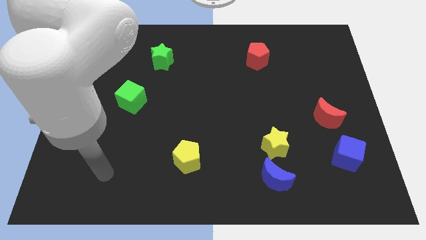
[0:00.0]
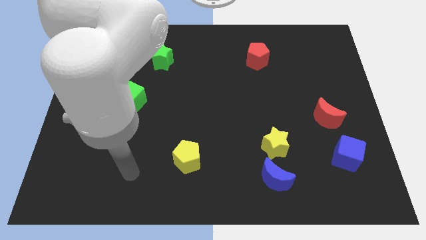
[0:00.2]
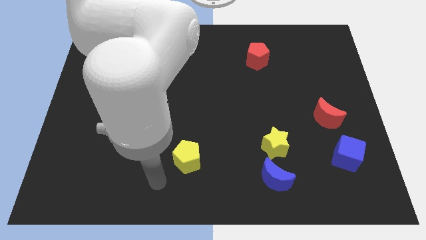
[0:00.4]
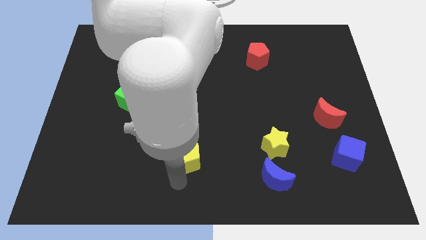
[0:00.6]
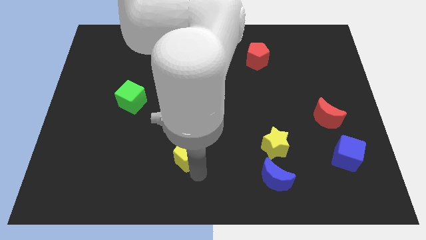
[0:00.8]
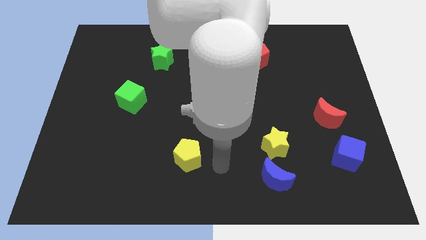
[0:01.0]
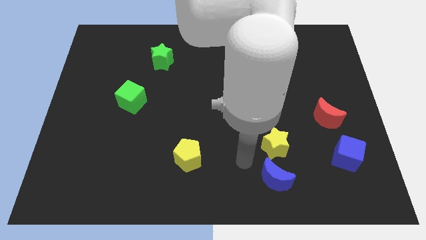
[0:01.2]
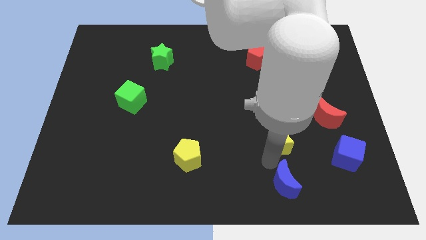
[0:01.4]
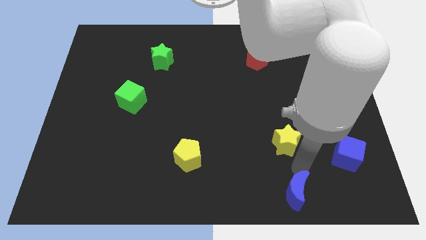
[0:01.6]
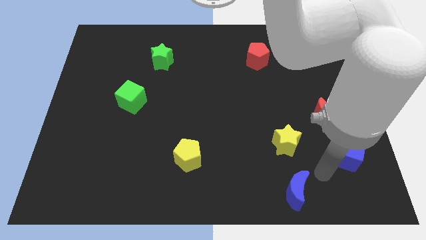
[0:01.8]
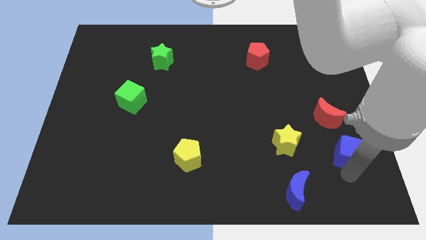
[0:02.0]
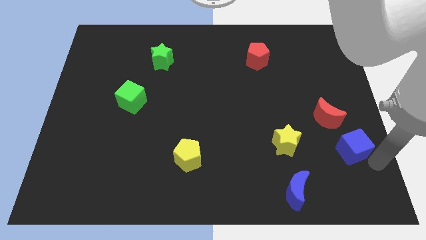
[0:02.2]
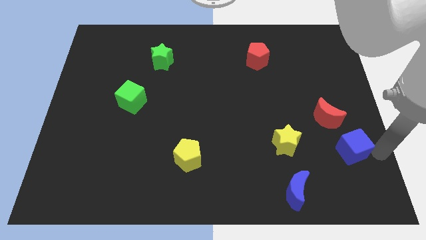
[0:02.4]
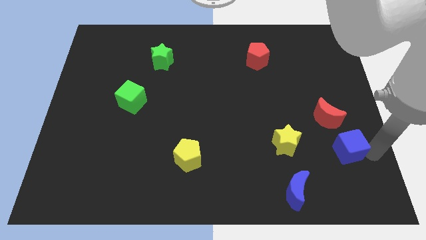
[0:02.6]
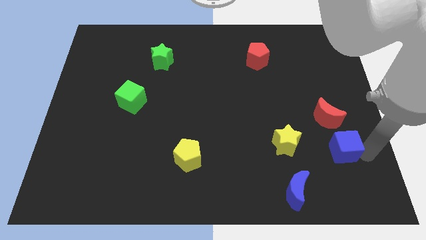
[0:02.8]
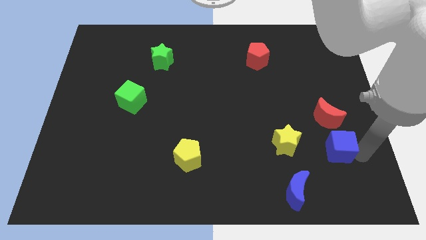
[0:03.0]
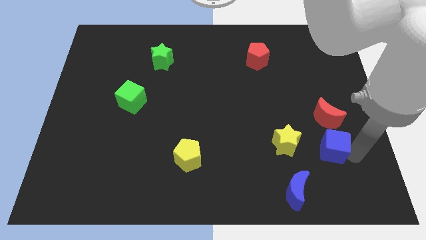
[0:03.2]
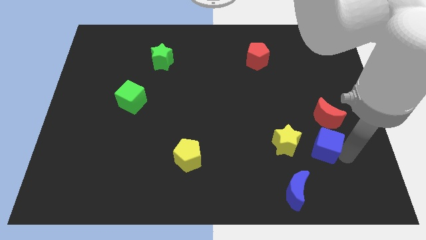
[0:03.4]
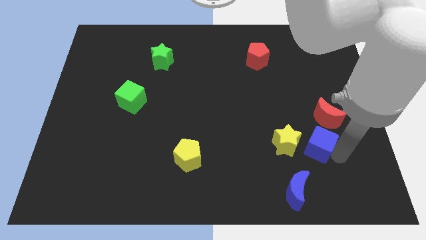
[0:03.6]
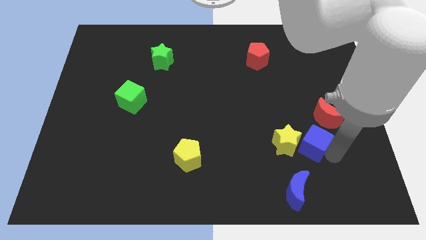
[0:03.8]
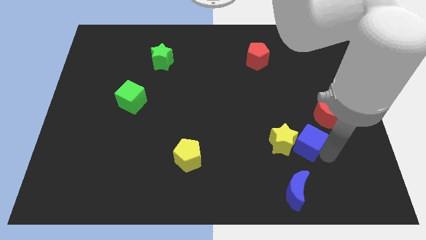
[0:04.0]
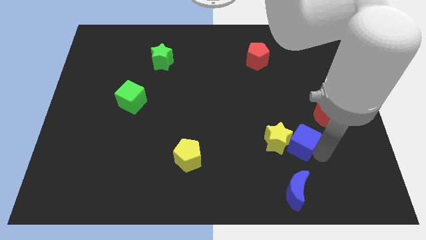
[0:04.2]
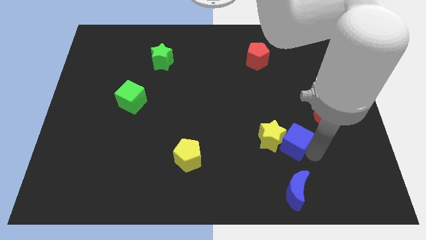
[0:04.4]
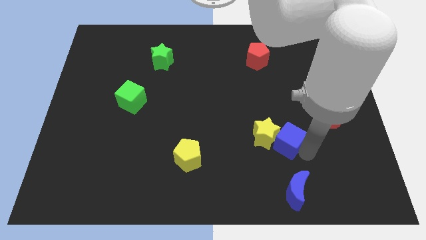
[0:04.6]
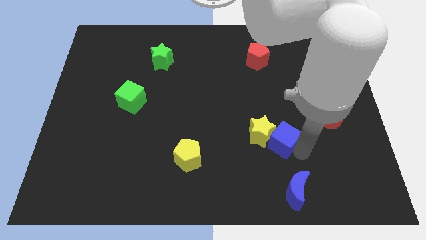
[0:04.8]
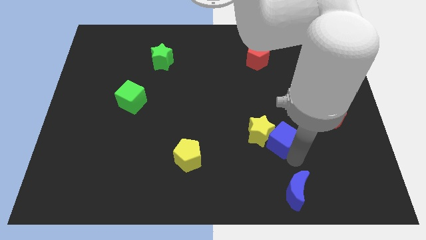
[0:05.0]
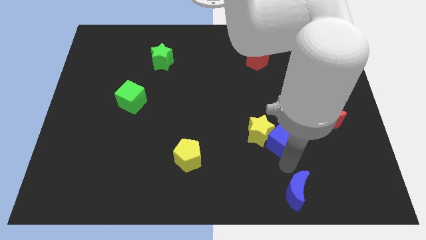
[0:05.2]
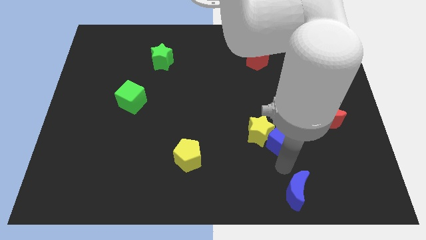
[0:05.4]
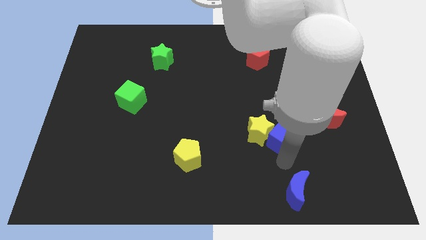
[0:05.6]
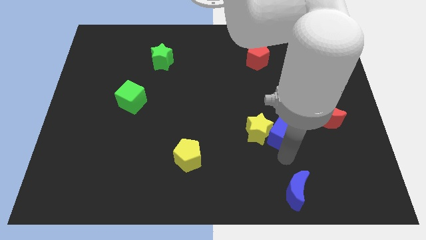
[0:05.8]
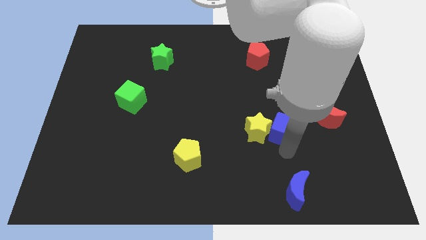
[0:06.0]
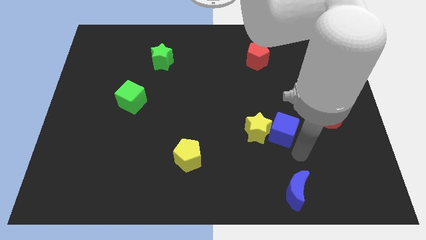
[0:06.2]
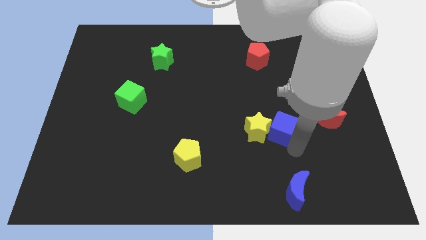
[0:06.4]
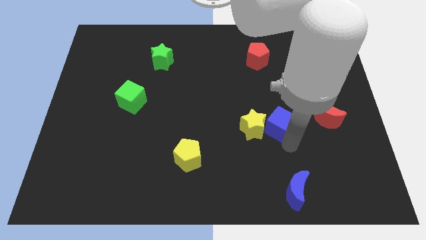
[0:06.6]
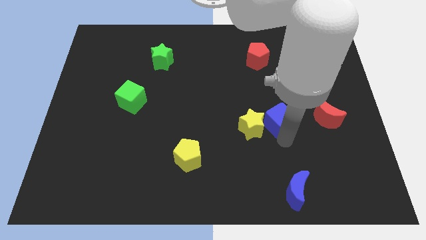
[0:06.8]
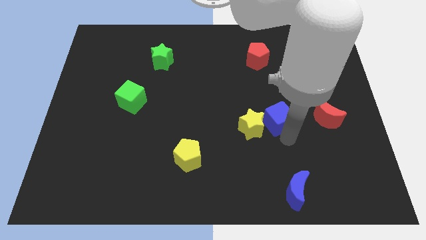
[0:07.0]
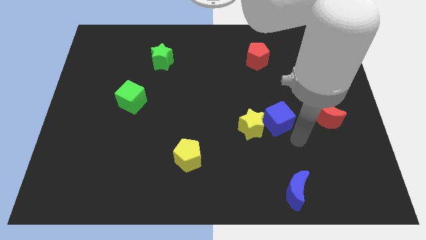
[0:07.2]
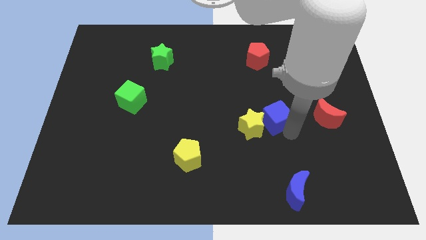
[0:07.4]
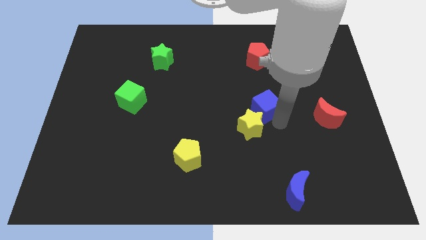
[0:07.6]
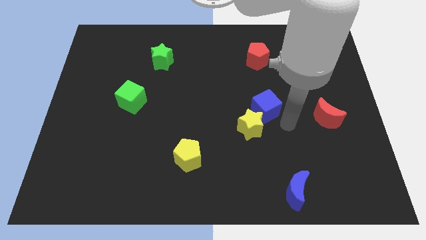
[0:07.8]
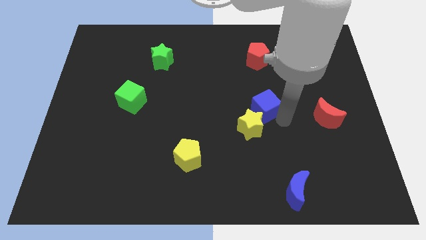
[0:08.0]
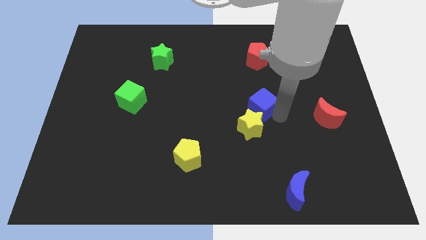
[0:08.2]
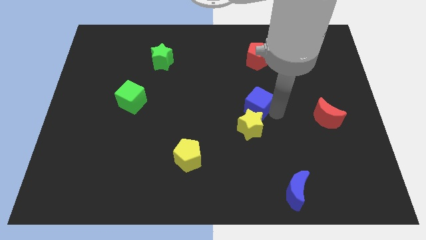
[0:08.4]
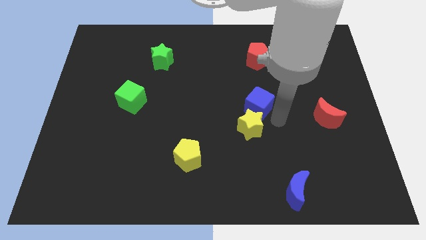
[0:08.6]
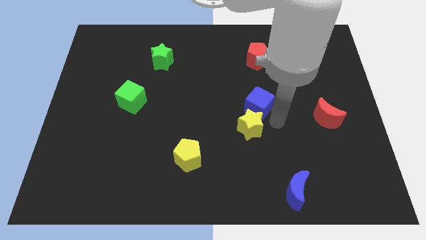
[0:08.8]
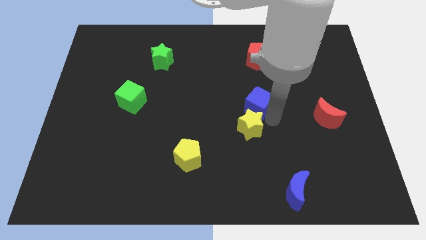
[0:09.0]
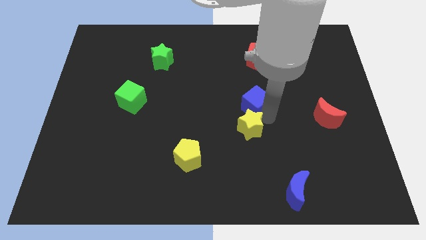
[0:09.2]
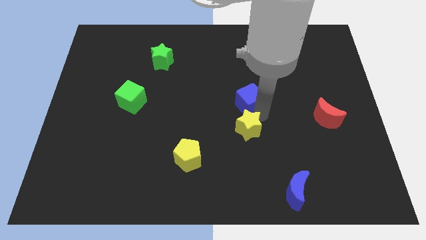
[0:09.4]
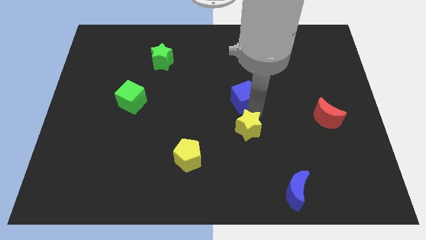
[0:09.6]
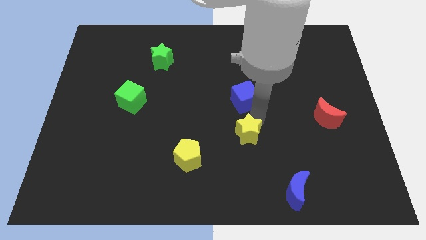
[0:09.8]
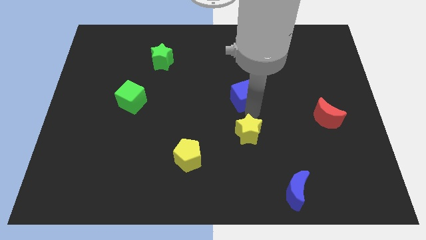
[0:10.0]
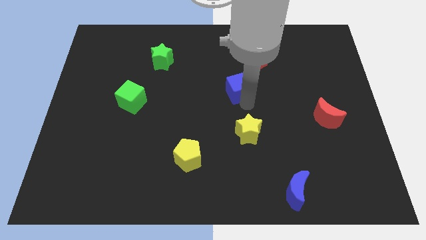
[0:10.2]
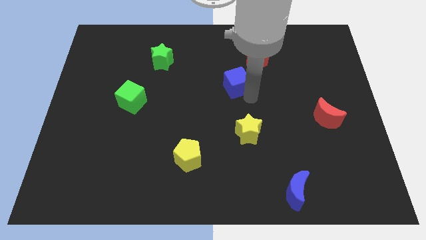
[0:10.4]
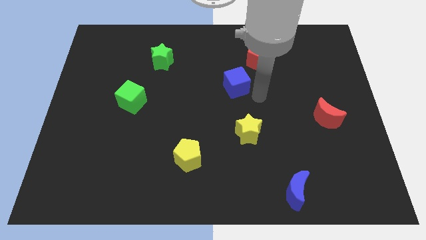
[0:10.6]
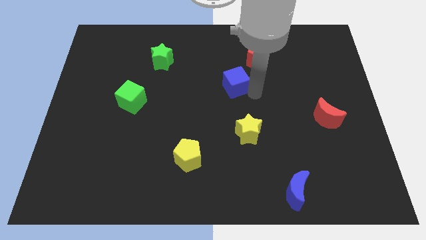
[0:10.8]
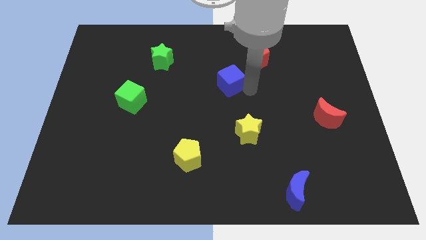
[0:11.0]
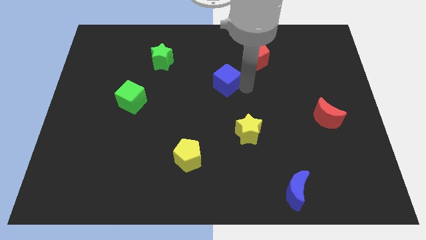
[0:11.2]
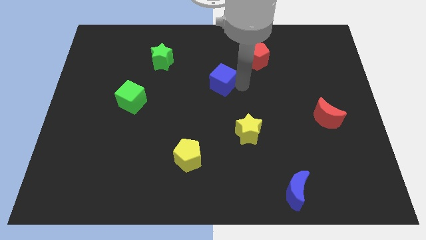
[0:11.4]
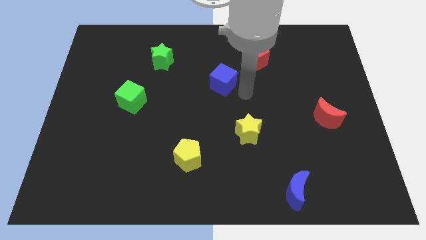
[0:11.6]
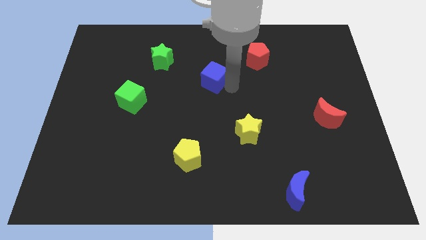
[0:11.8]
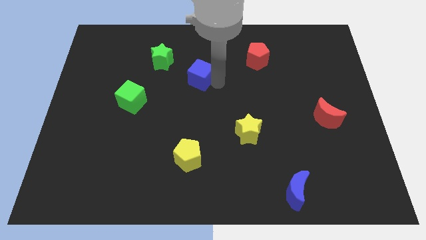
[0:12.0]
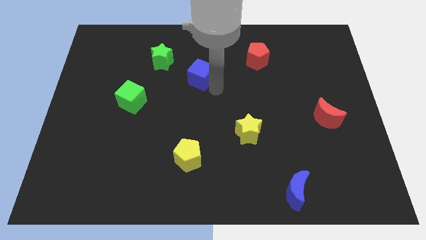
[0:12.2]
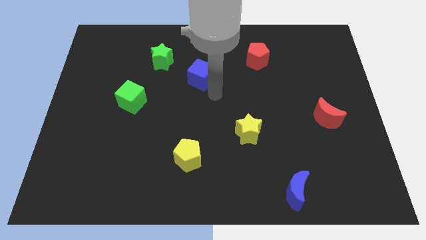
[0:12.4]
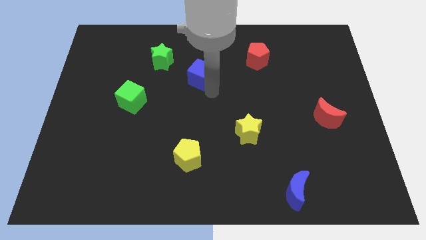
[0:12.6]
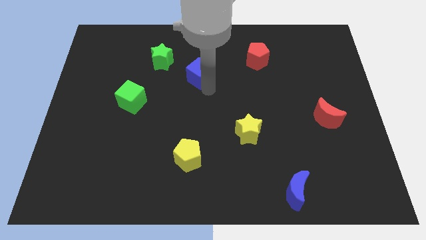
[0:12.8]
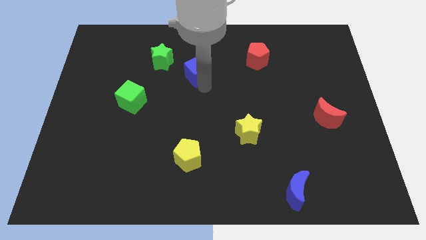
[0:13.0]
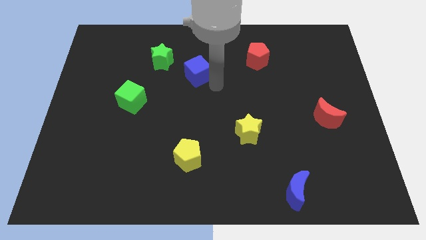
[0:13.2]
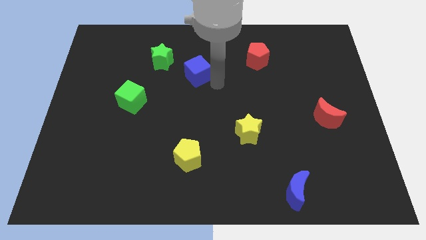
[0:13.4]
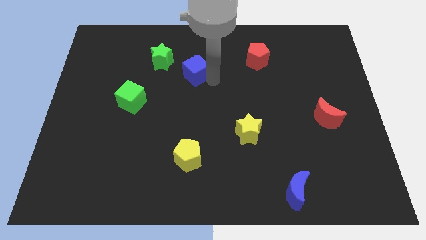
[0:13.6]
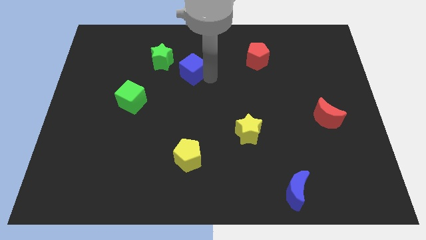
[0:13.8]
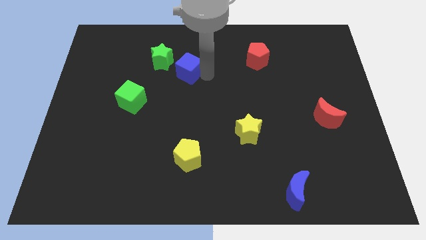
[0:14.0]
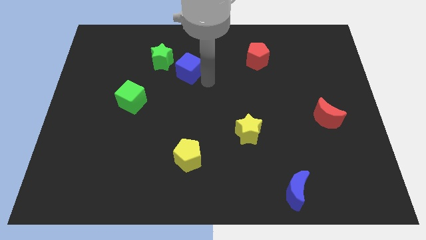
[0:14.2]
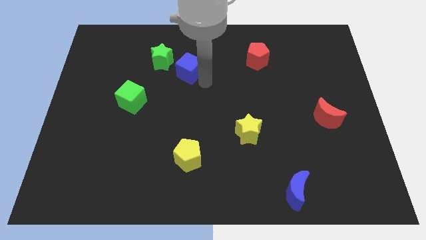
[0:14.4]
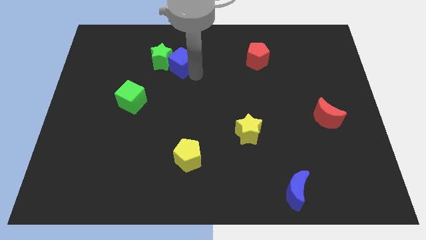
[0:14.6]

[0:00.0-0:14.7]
push the blue cube towards the green star
